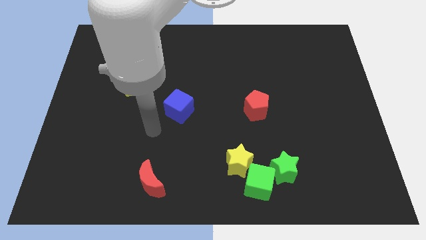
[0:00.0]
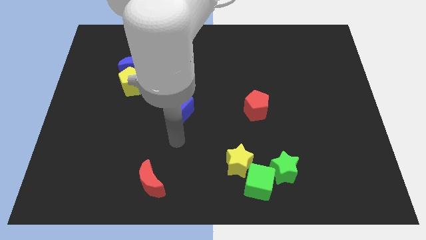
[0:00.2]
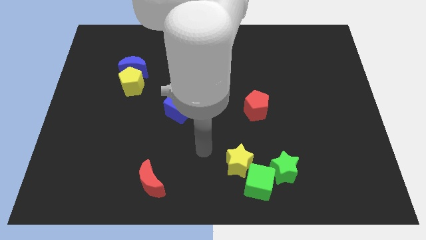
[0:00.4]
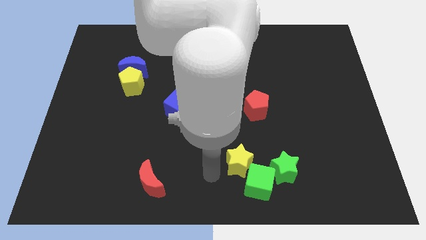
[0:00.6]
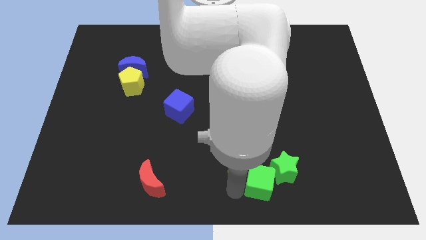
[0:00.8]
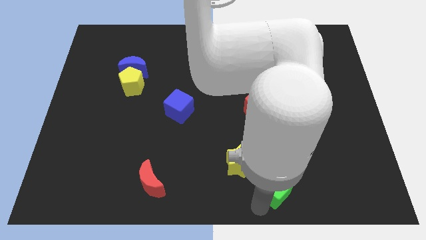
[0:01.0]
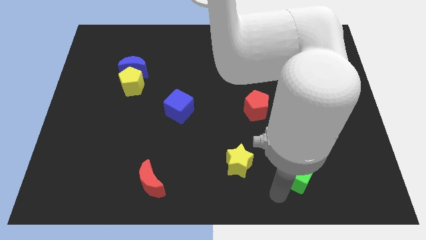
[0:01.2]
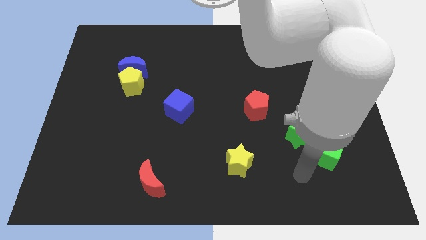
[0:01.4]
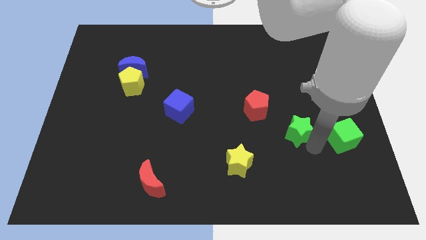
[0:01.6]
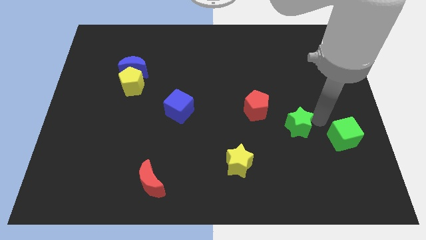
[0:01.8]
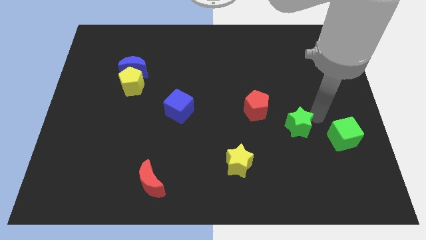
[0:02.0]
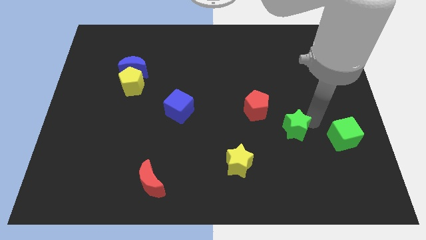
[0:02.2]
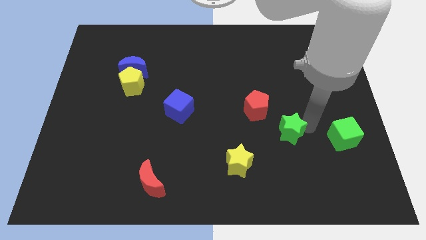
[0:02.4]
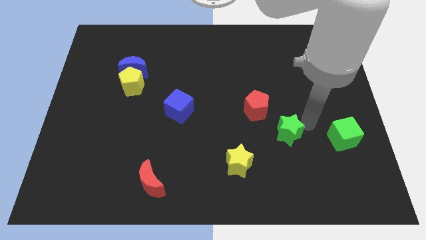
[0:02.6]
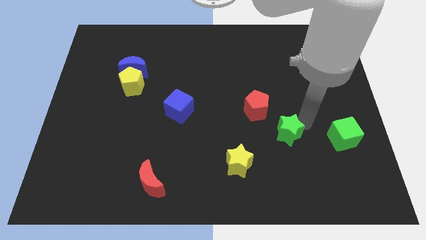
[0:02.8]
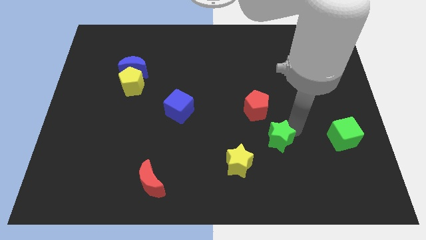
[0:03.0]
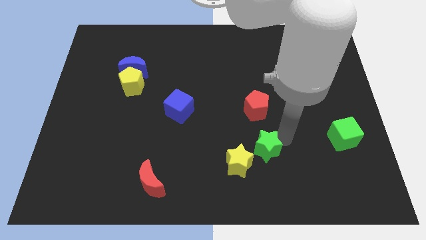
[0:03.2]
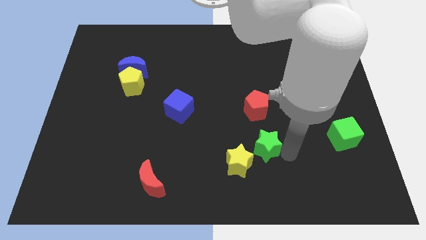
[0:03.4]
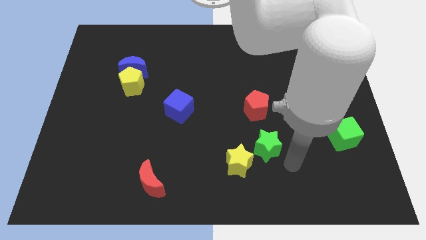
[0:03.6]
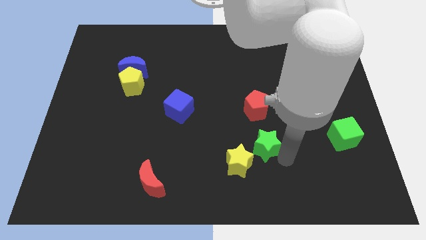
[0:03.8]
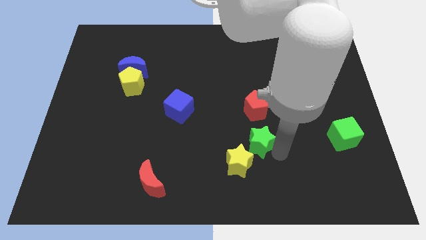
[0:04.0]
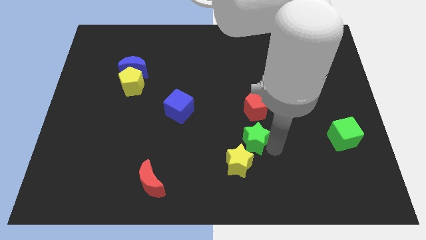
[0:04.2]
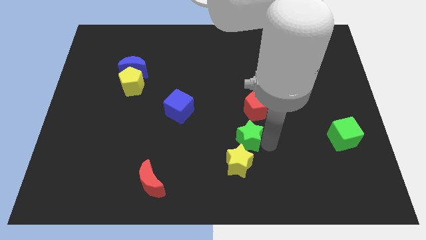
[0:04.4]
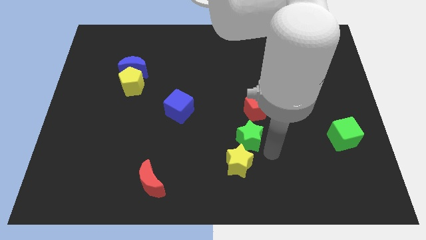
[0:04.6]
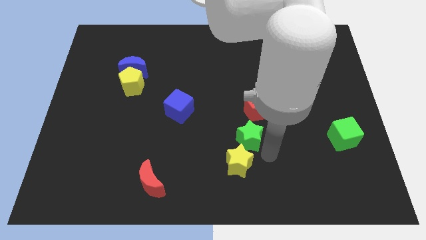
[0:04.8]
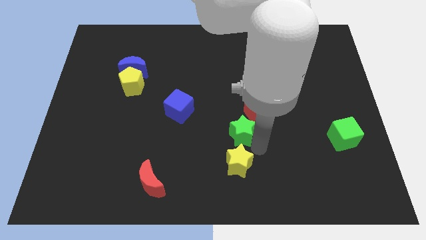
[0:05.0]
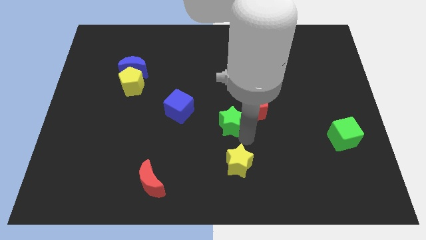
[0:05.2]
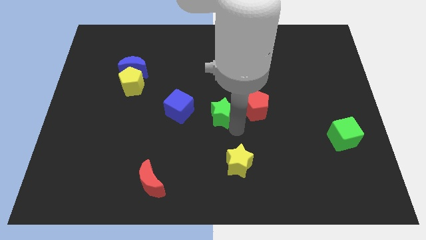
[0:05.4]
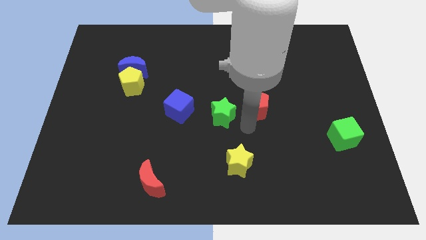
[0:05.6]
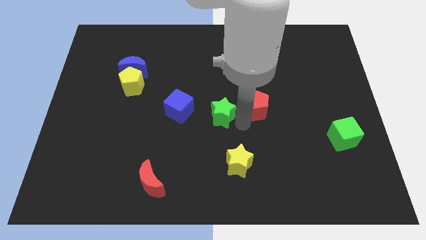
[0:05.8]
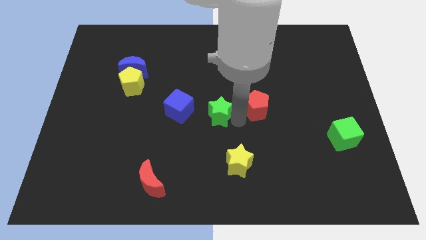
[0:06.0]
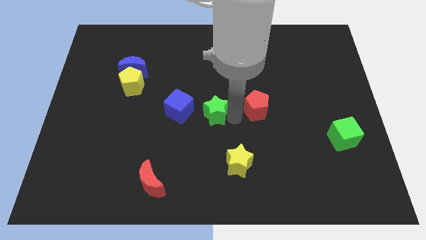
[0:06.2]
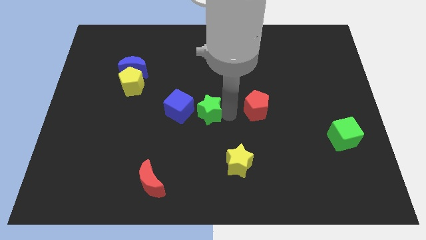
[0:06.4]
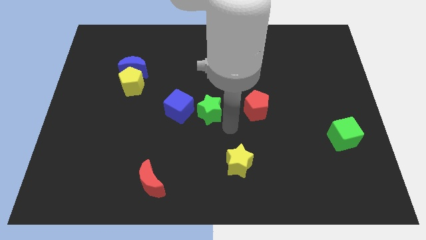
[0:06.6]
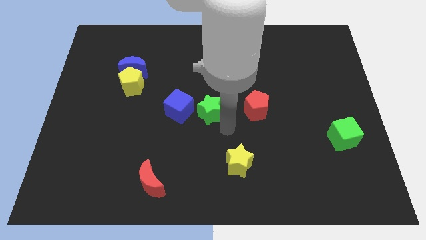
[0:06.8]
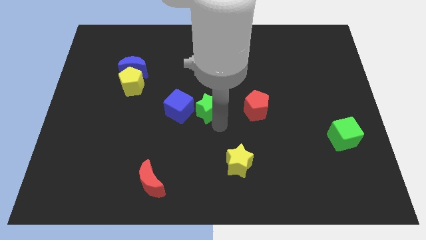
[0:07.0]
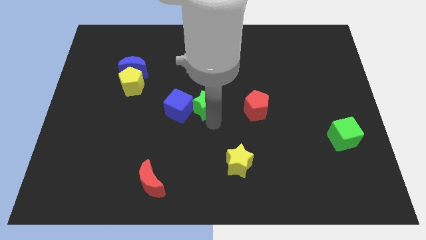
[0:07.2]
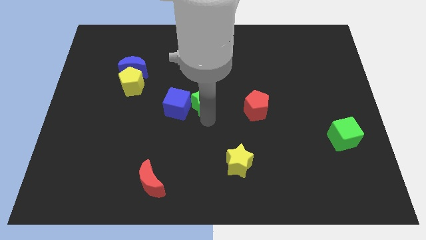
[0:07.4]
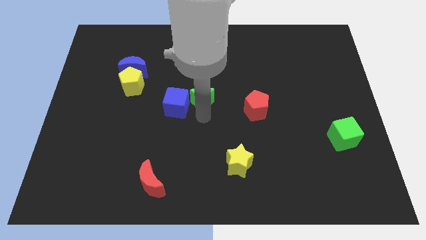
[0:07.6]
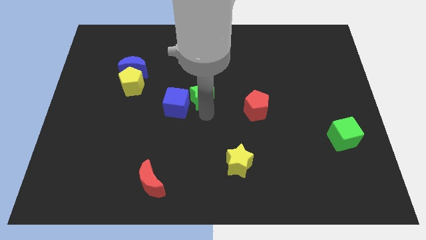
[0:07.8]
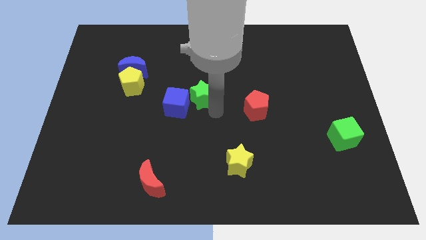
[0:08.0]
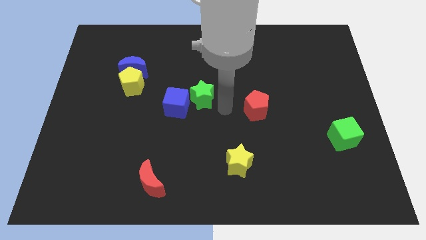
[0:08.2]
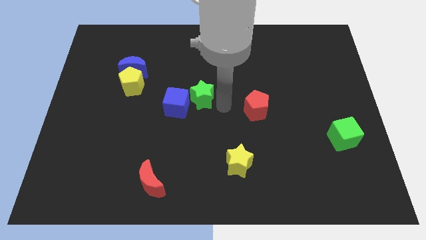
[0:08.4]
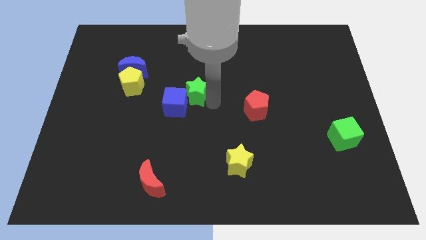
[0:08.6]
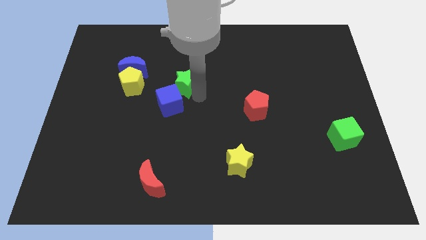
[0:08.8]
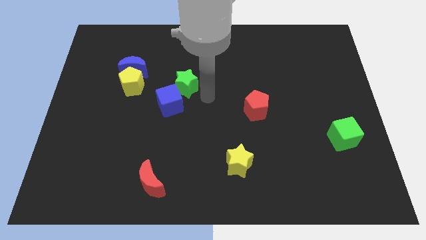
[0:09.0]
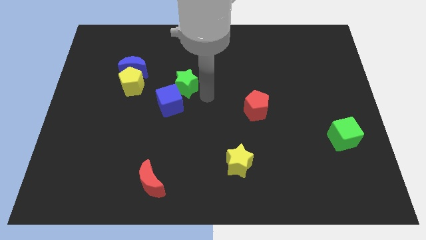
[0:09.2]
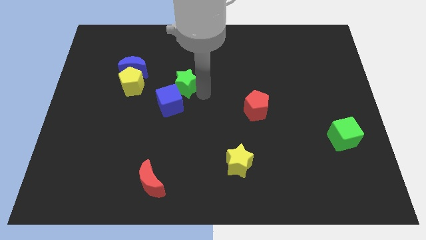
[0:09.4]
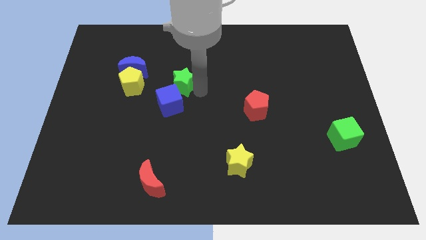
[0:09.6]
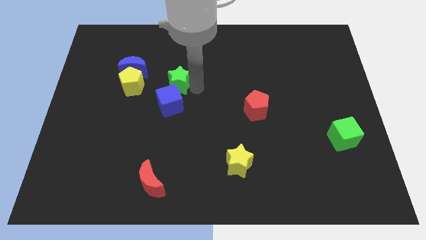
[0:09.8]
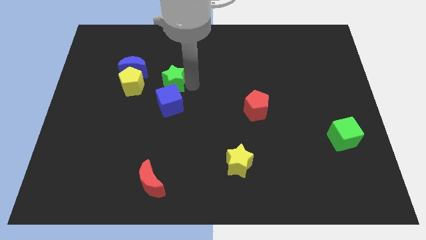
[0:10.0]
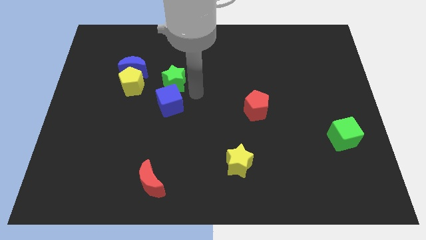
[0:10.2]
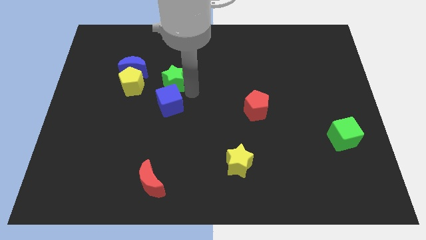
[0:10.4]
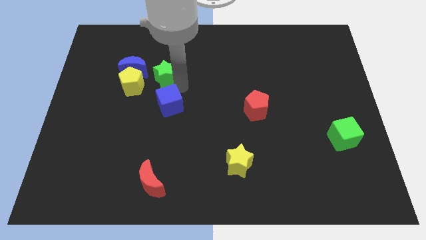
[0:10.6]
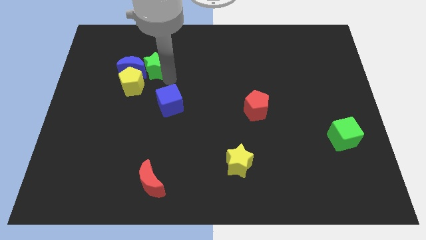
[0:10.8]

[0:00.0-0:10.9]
slide the green star next to the blue moon

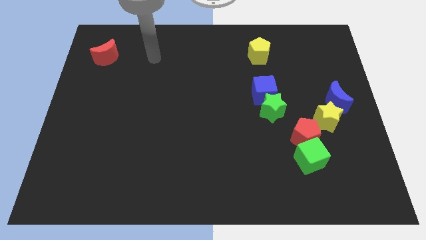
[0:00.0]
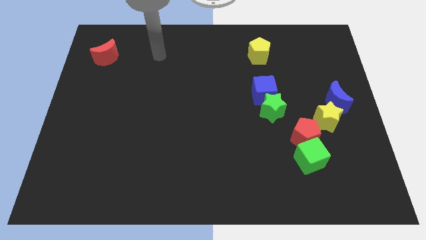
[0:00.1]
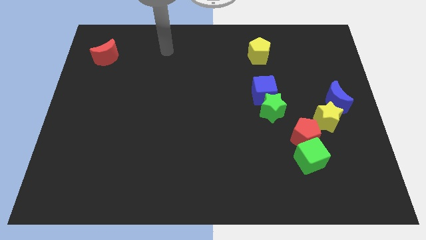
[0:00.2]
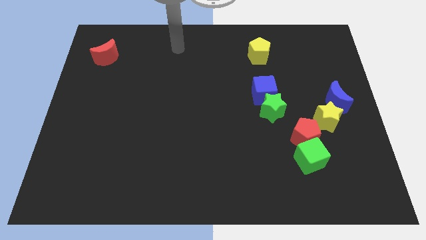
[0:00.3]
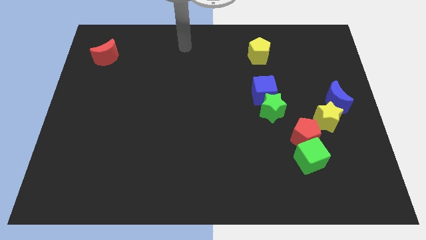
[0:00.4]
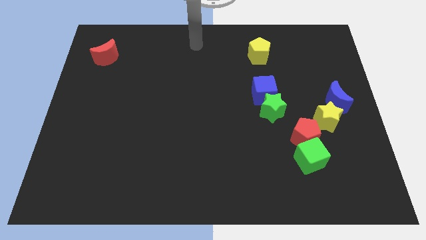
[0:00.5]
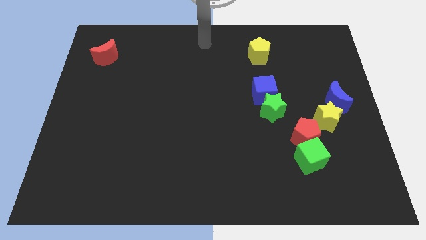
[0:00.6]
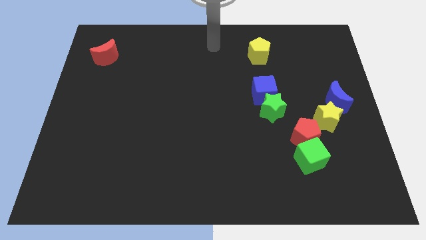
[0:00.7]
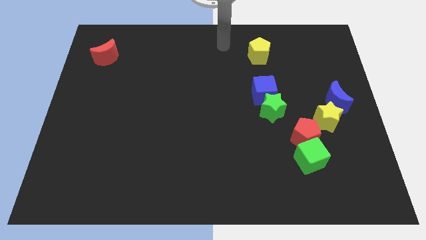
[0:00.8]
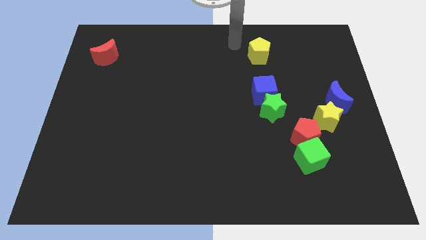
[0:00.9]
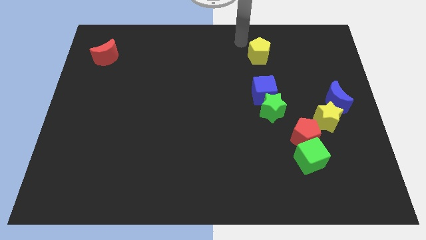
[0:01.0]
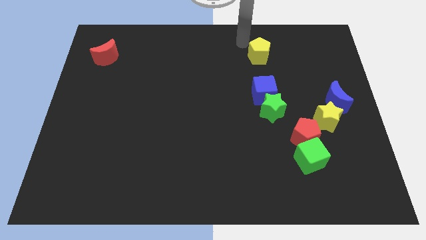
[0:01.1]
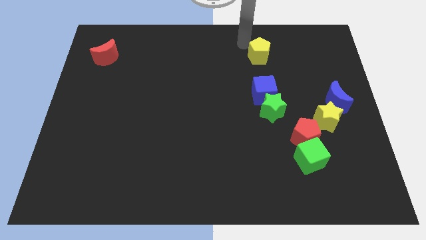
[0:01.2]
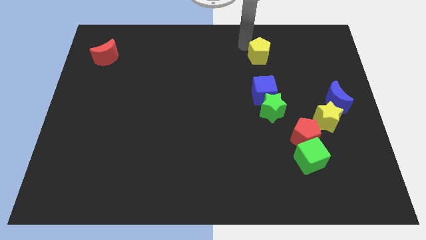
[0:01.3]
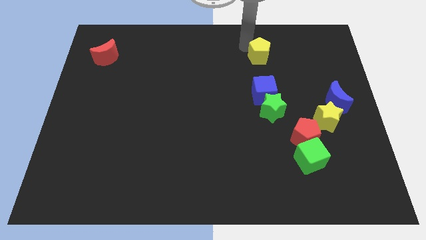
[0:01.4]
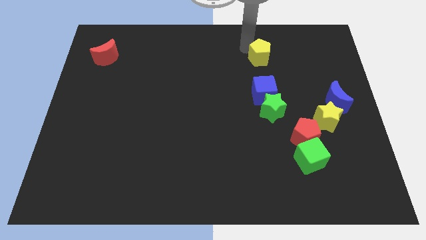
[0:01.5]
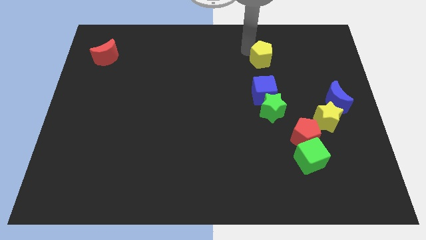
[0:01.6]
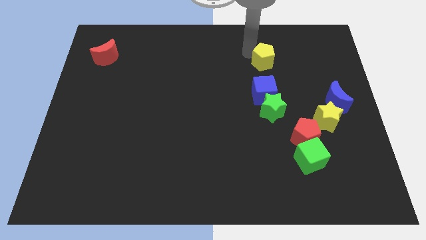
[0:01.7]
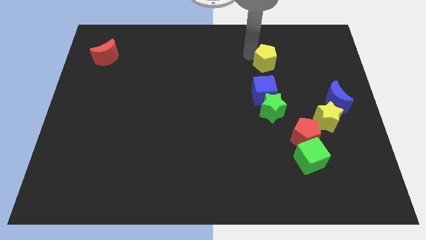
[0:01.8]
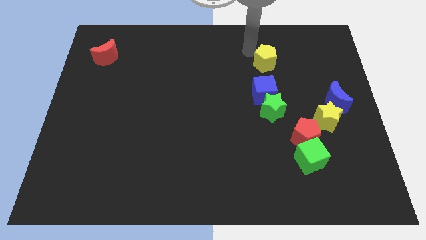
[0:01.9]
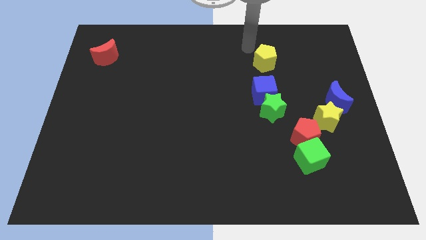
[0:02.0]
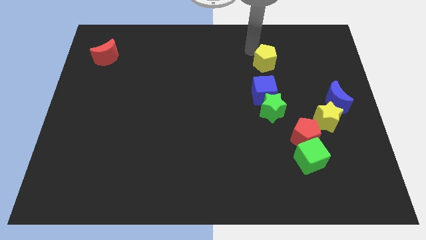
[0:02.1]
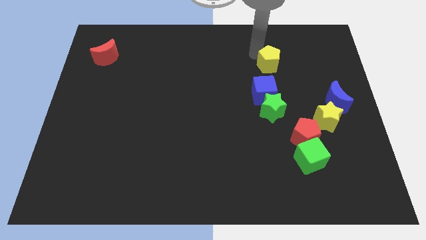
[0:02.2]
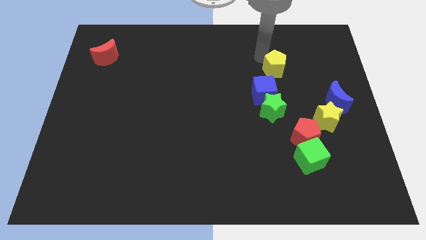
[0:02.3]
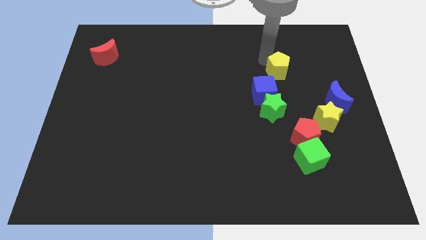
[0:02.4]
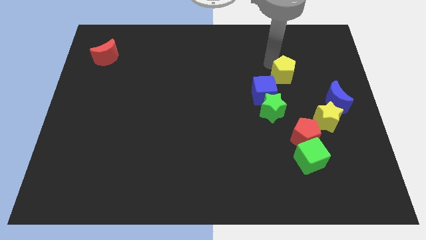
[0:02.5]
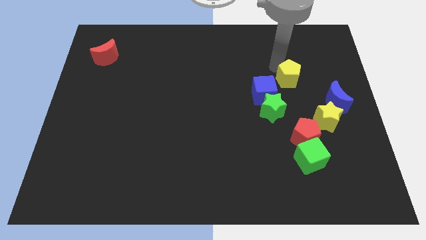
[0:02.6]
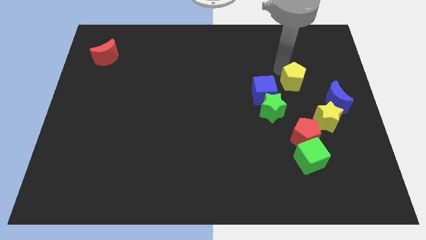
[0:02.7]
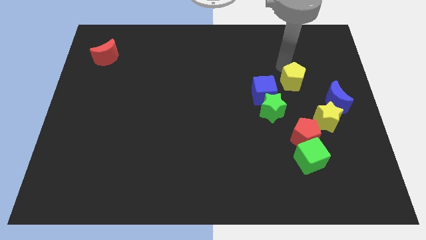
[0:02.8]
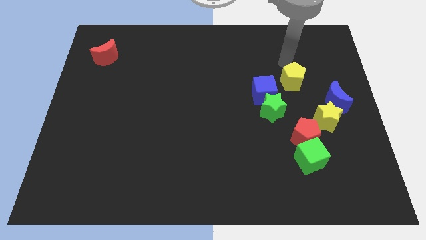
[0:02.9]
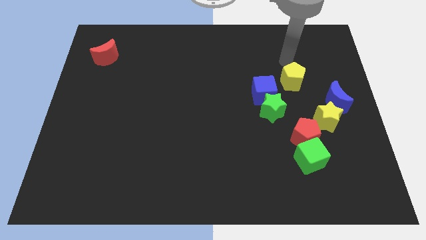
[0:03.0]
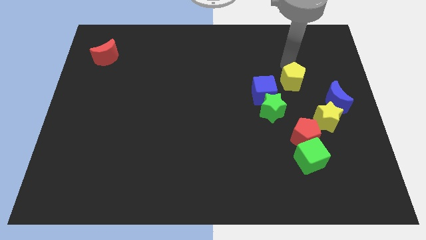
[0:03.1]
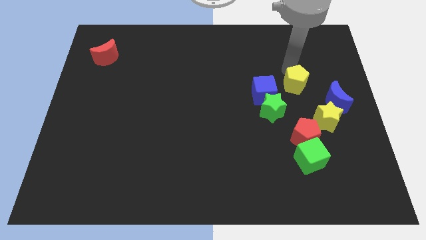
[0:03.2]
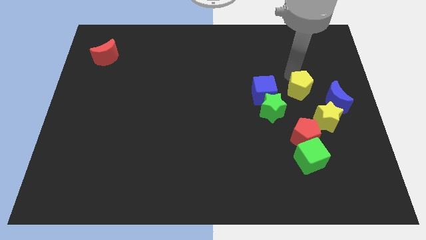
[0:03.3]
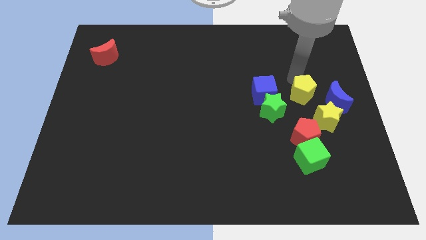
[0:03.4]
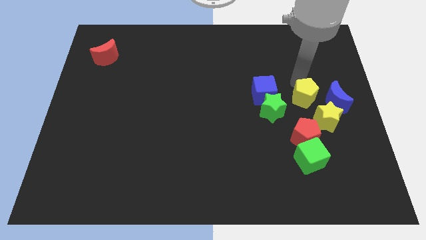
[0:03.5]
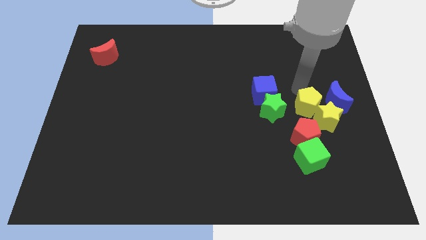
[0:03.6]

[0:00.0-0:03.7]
slide the yellow pentagon to the yellow star
